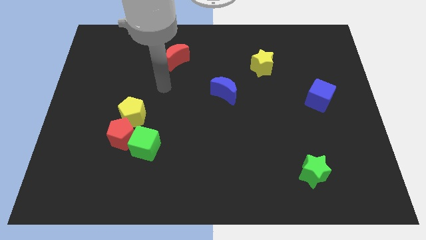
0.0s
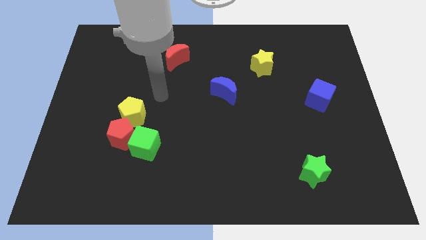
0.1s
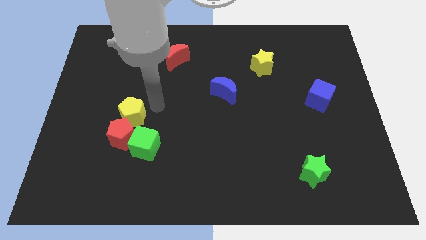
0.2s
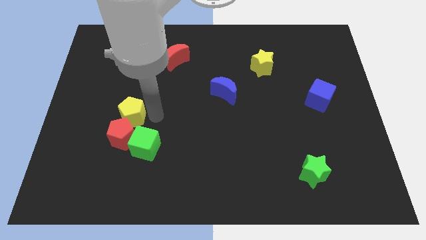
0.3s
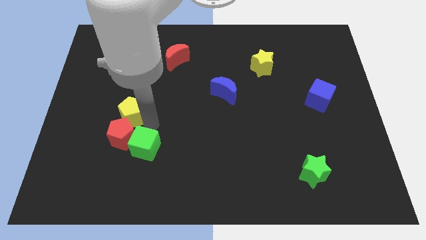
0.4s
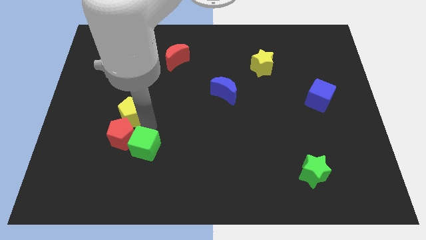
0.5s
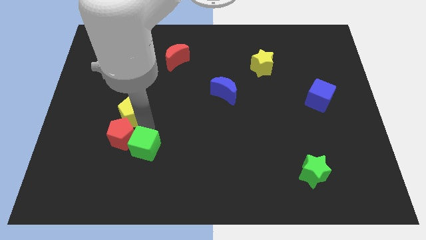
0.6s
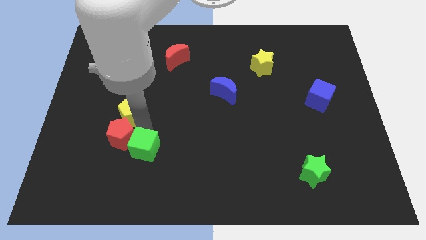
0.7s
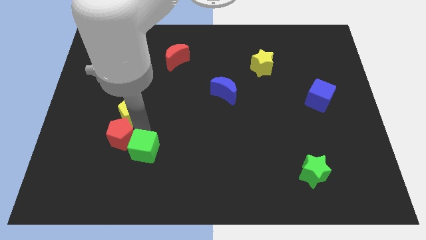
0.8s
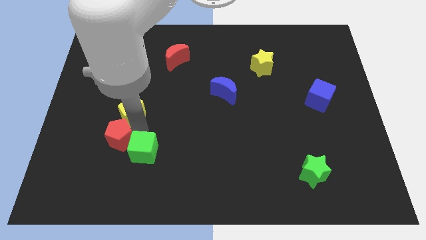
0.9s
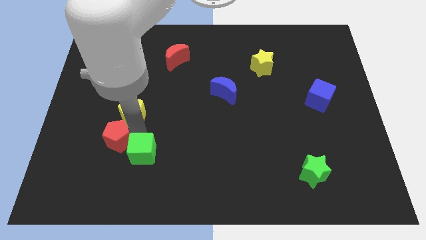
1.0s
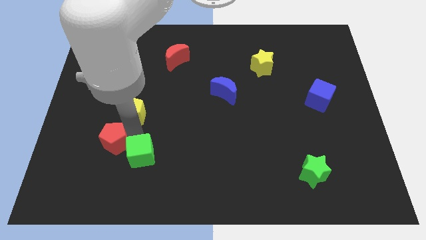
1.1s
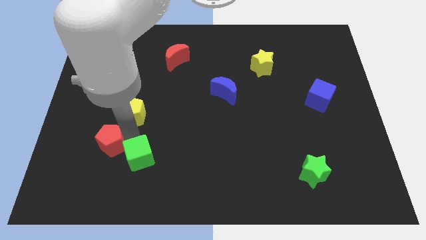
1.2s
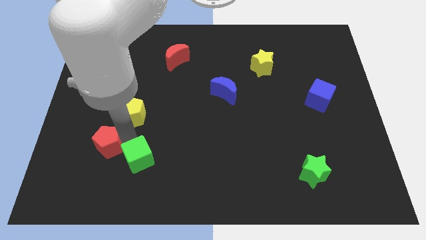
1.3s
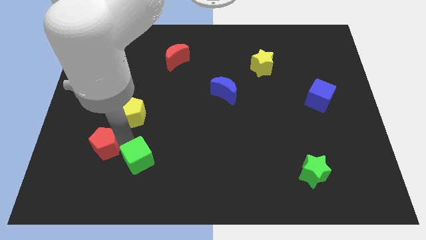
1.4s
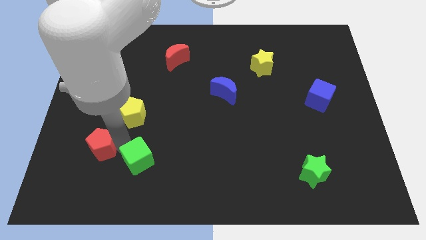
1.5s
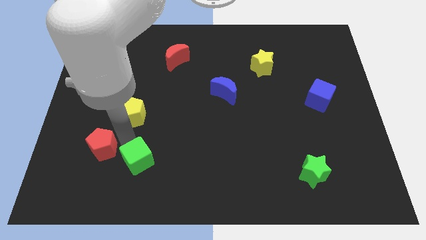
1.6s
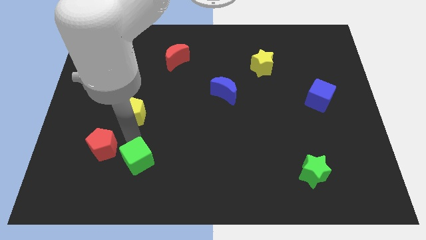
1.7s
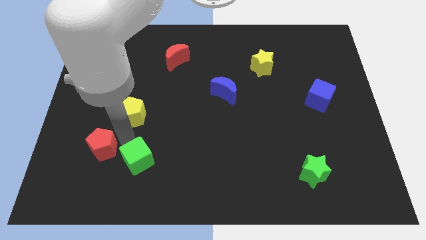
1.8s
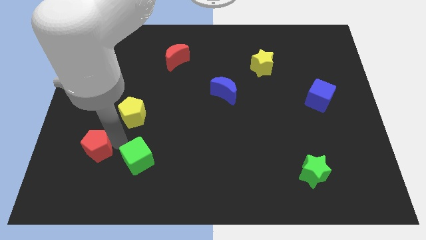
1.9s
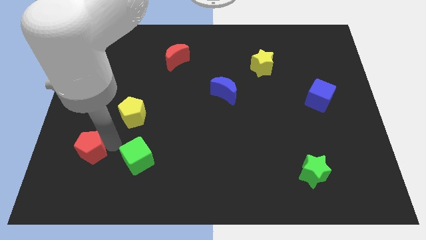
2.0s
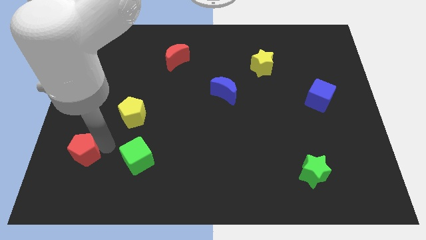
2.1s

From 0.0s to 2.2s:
separate the red pentagon from the green cube and yellow pentagon

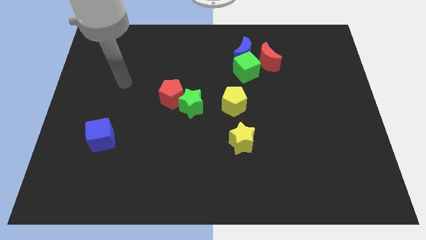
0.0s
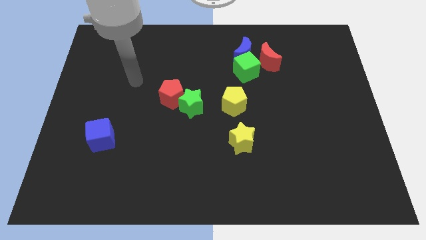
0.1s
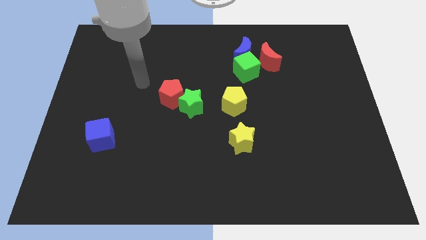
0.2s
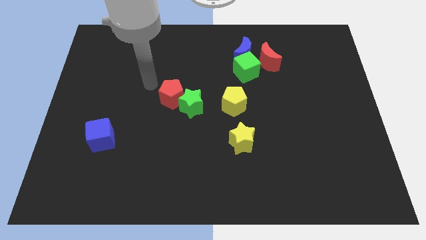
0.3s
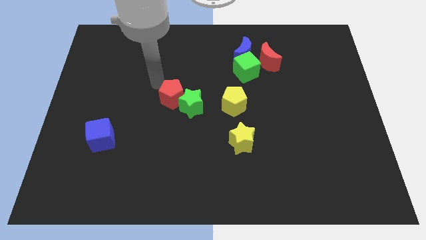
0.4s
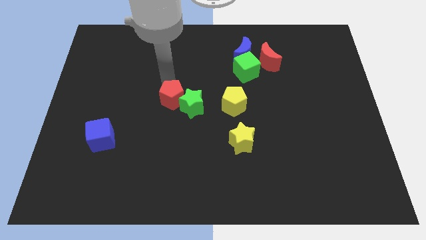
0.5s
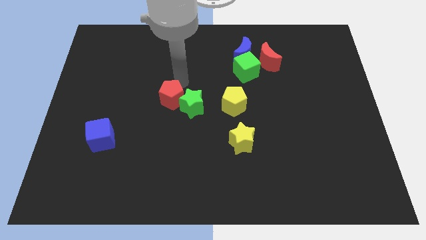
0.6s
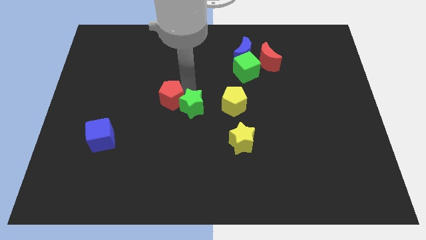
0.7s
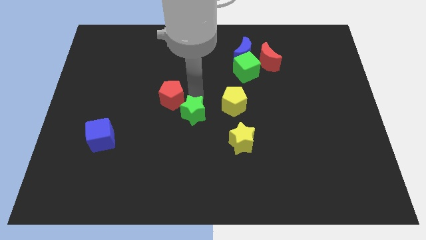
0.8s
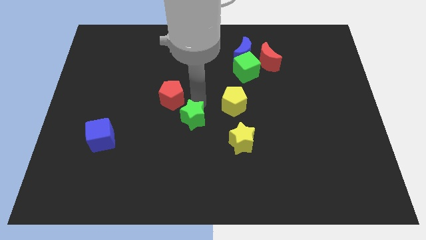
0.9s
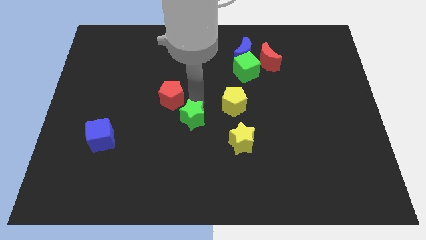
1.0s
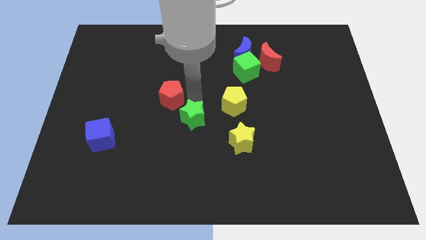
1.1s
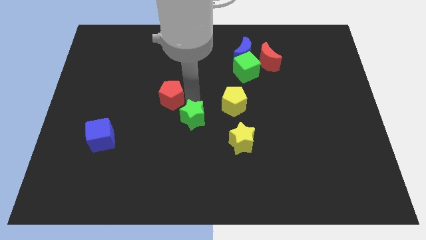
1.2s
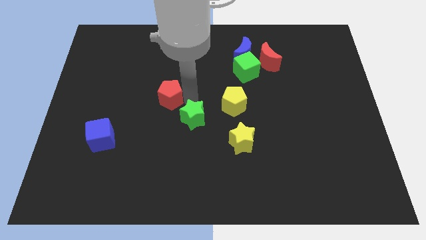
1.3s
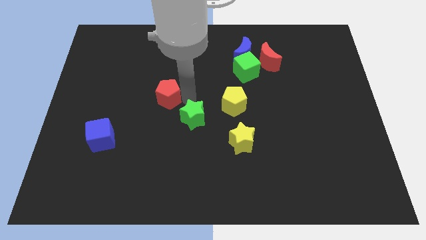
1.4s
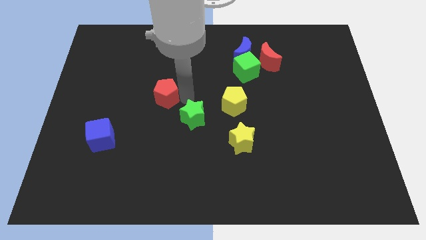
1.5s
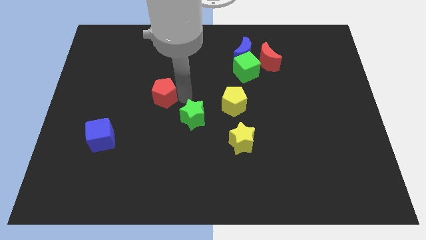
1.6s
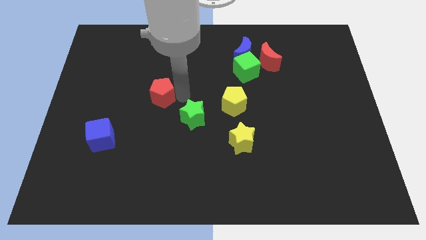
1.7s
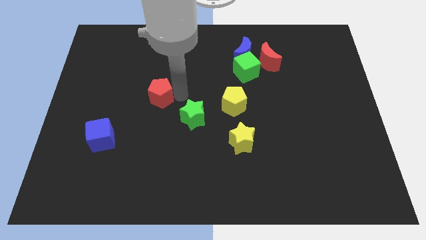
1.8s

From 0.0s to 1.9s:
separate the red pentagon from the green star

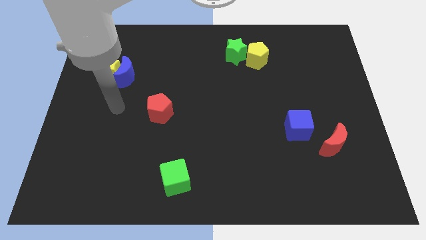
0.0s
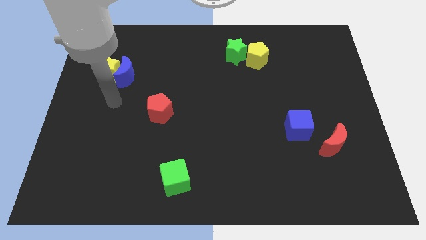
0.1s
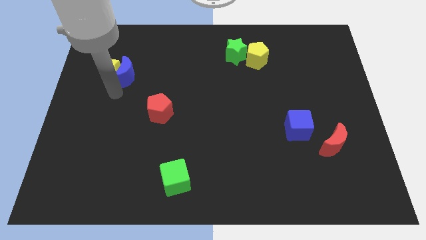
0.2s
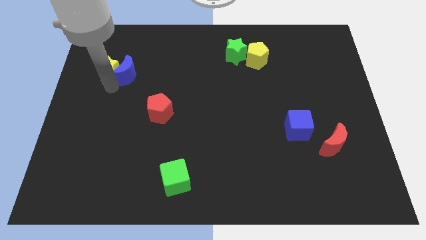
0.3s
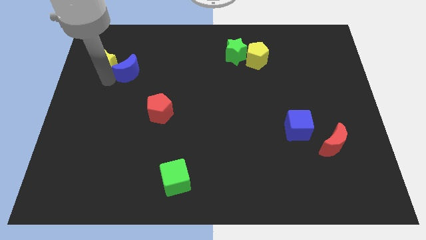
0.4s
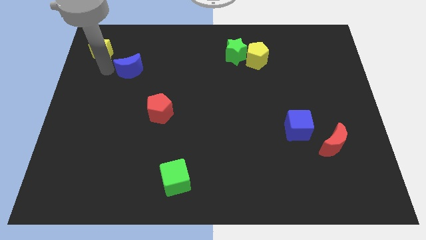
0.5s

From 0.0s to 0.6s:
separate the blue moon from the yellow star

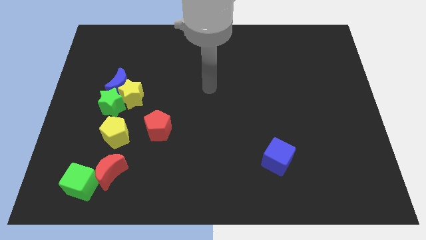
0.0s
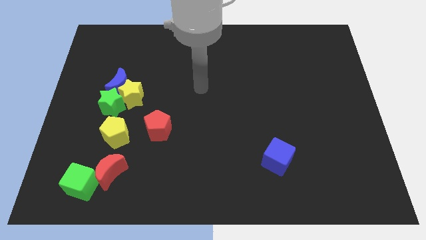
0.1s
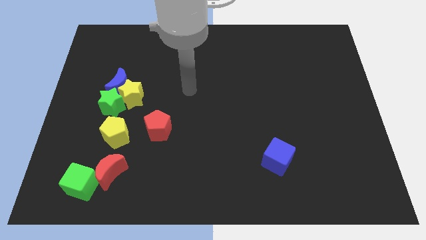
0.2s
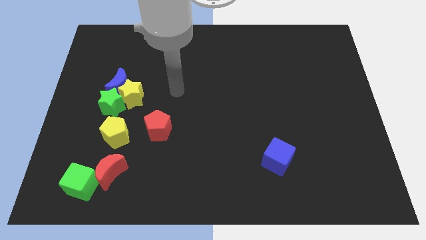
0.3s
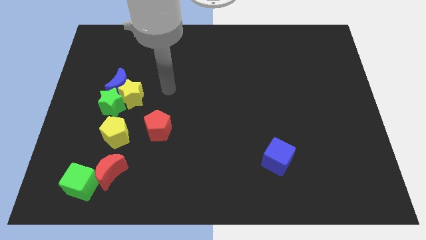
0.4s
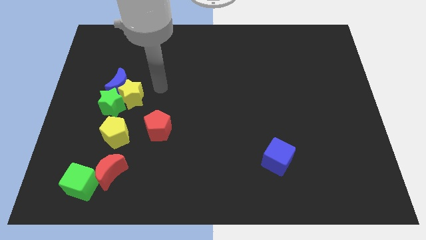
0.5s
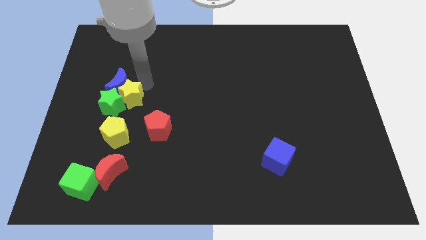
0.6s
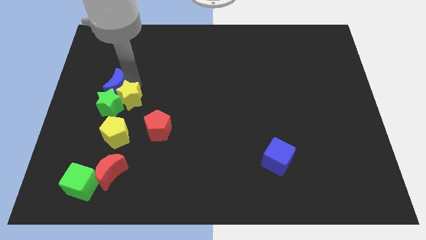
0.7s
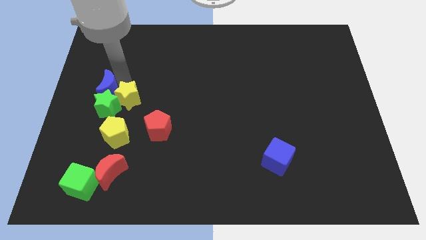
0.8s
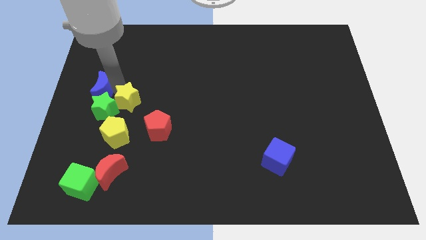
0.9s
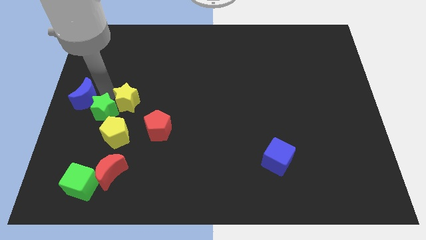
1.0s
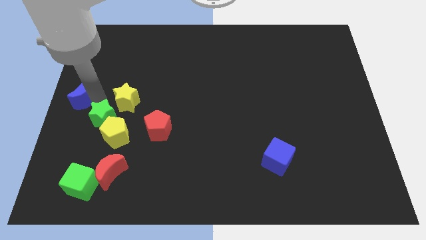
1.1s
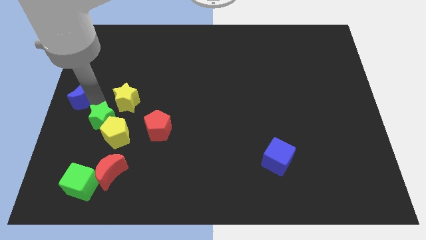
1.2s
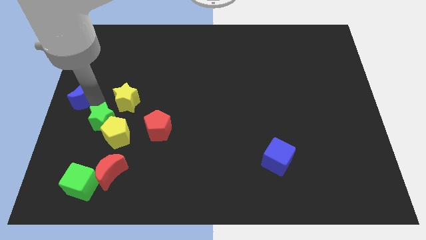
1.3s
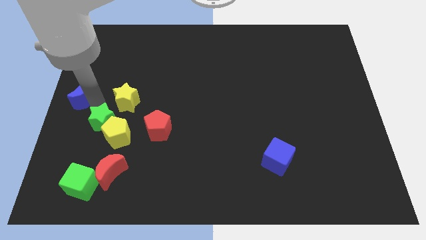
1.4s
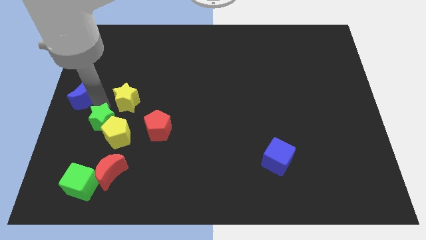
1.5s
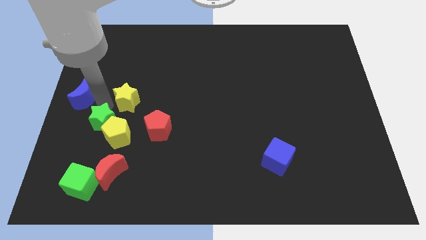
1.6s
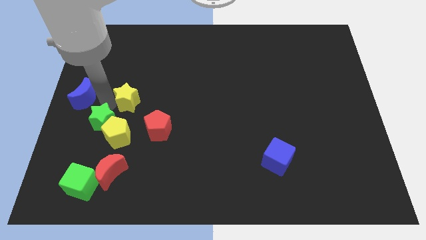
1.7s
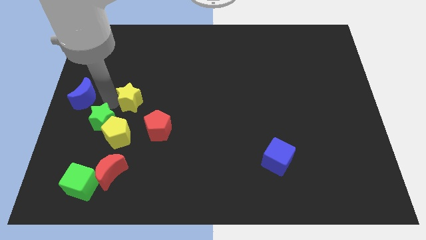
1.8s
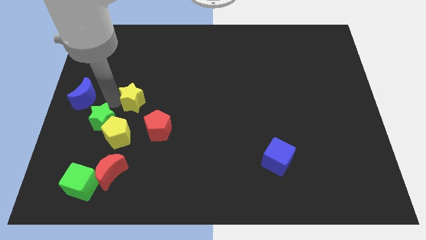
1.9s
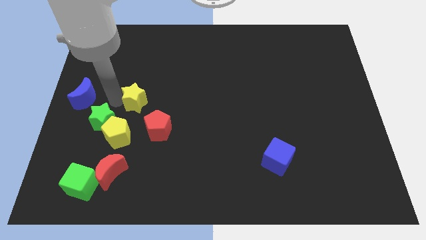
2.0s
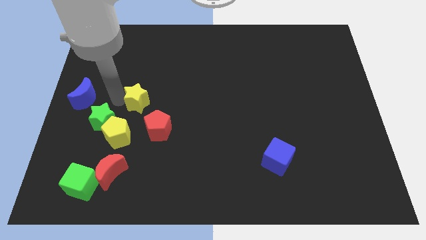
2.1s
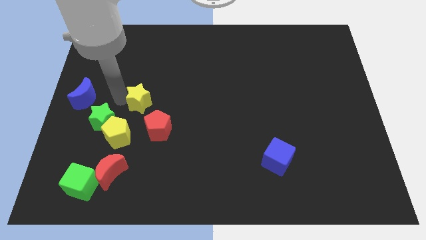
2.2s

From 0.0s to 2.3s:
pull the yellow star apart from the blue moon and green star

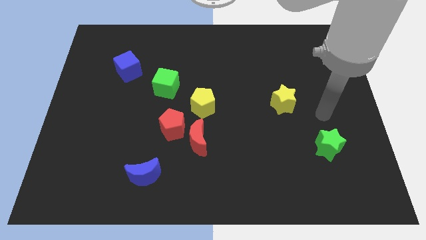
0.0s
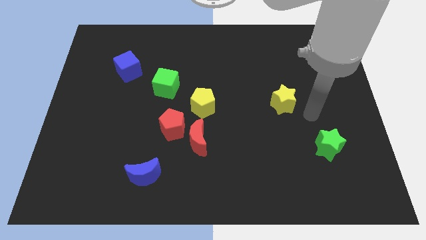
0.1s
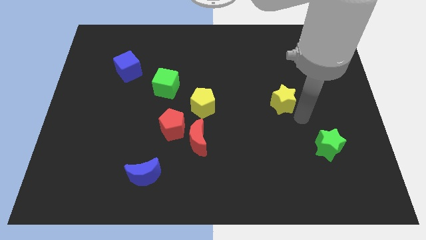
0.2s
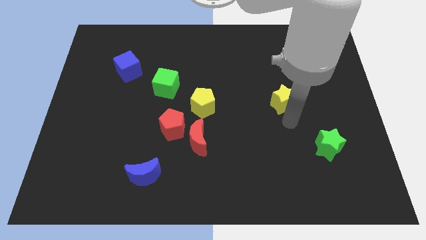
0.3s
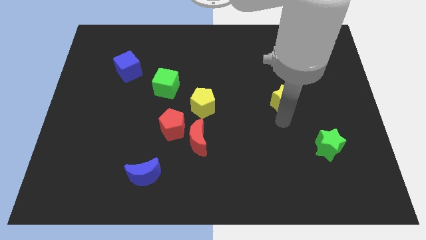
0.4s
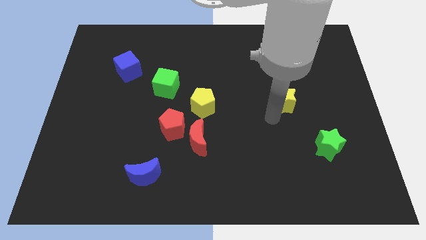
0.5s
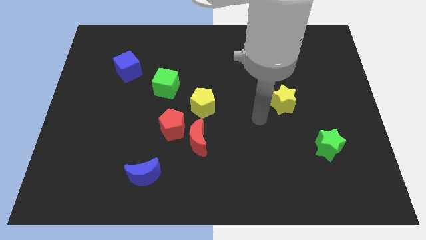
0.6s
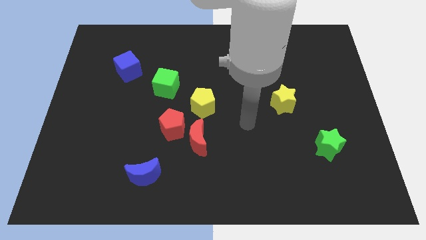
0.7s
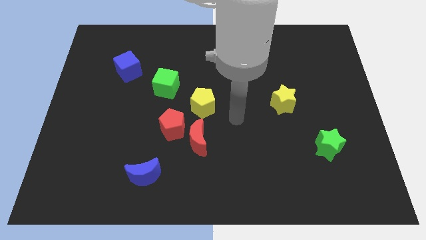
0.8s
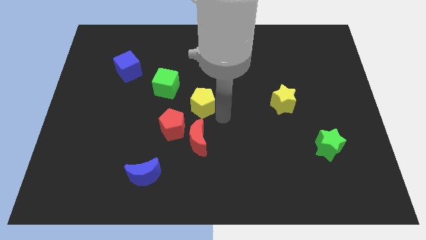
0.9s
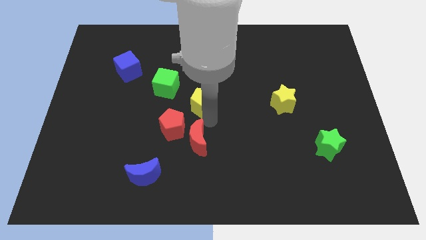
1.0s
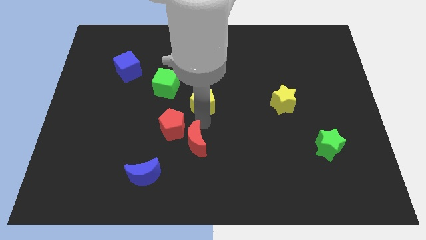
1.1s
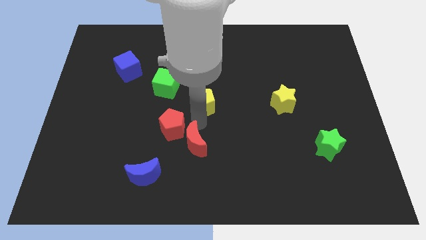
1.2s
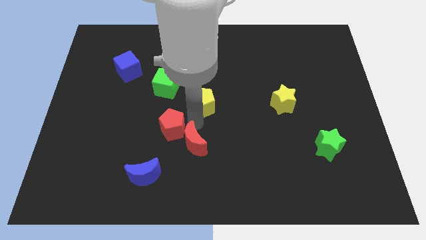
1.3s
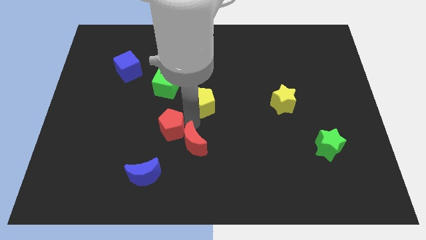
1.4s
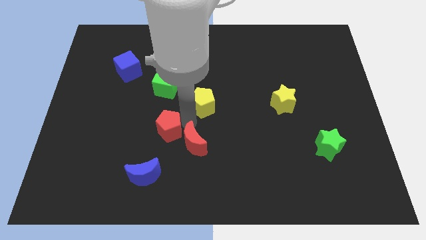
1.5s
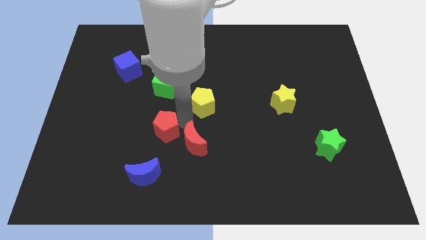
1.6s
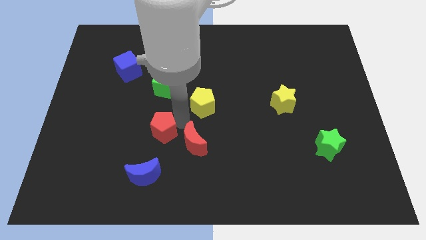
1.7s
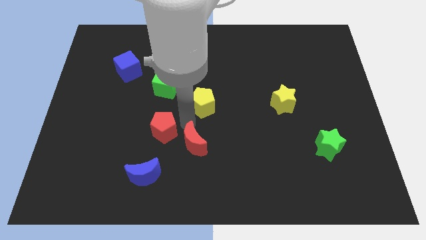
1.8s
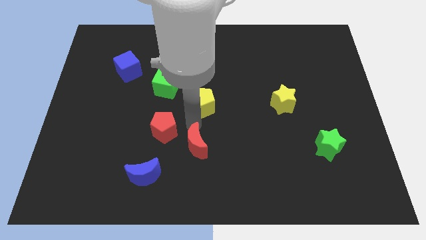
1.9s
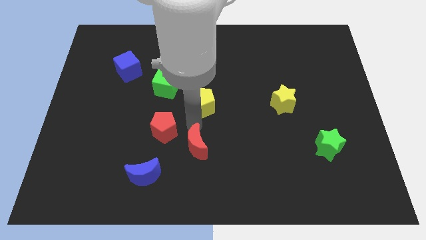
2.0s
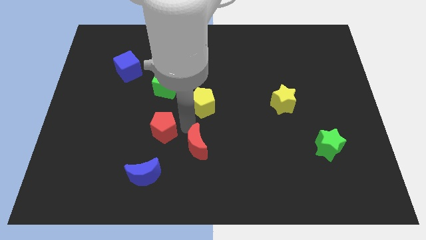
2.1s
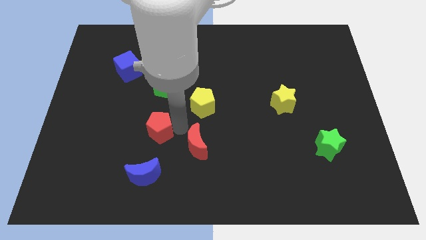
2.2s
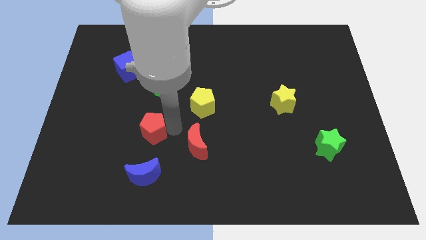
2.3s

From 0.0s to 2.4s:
pull the red pentagon apart from the red moon and yellow pentagon
